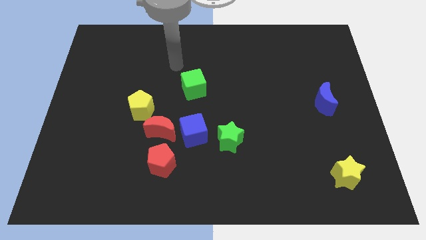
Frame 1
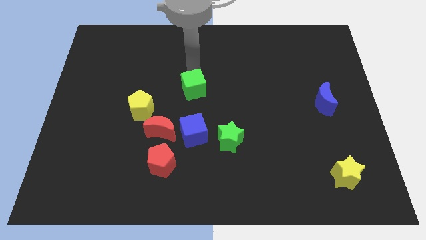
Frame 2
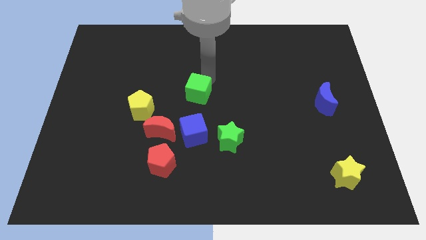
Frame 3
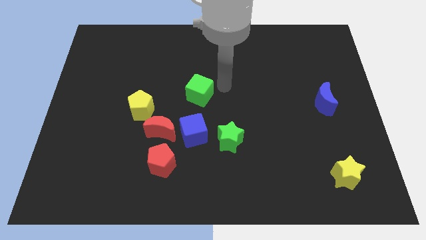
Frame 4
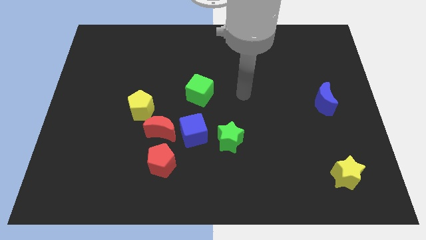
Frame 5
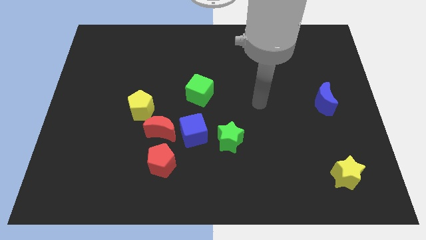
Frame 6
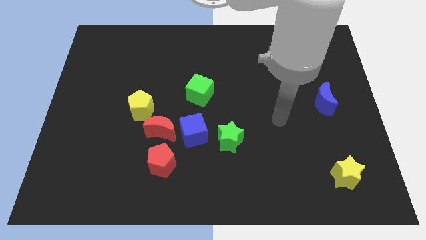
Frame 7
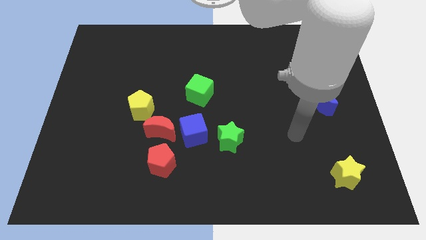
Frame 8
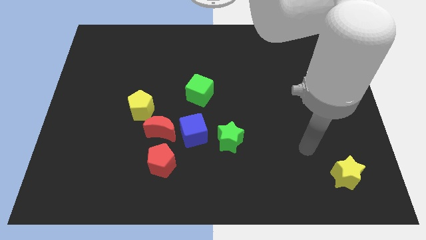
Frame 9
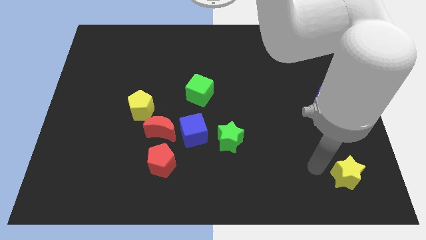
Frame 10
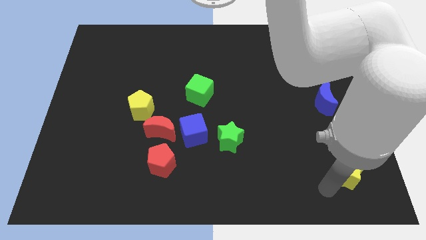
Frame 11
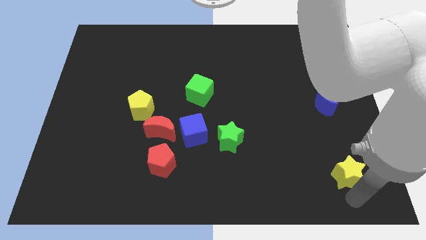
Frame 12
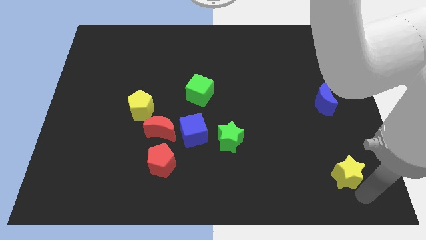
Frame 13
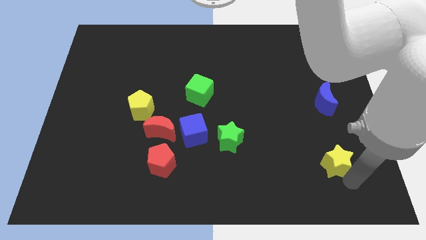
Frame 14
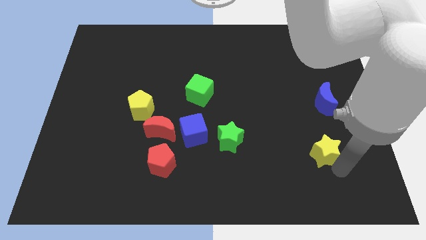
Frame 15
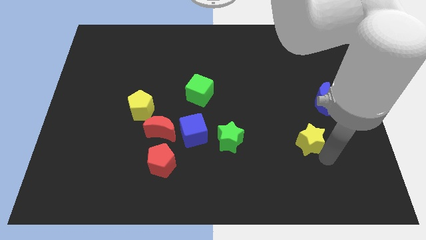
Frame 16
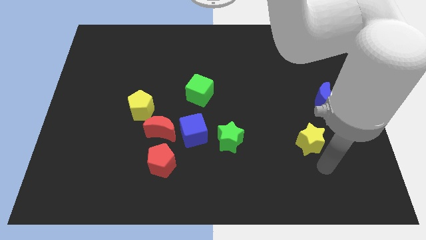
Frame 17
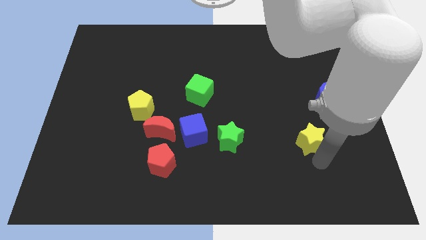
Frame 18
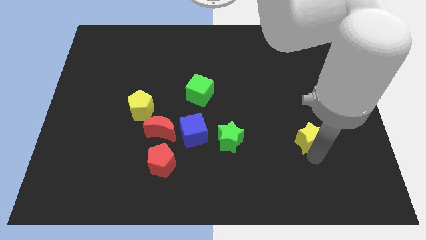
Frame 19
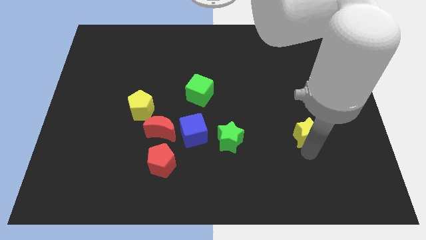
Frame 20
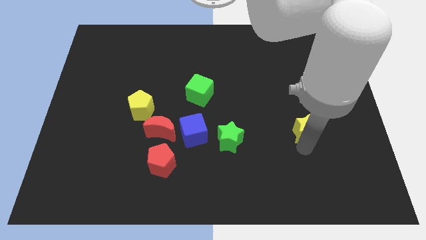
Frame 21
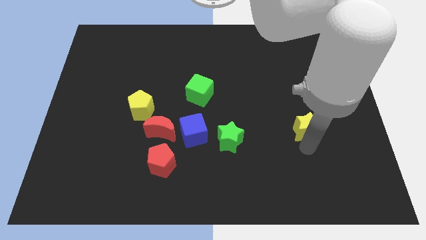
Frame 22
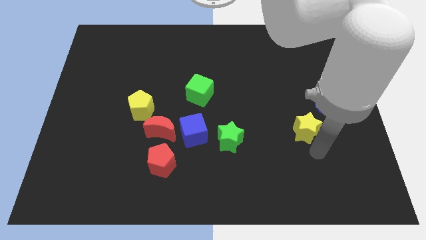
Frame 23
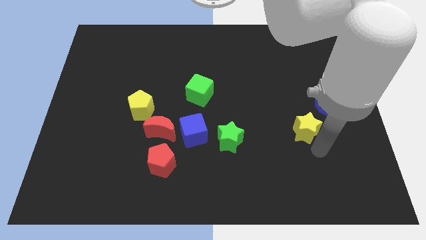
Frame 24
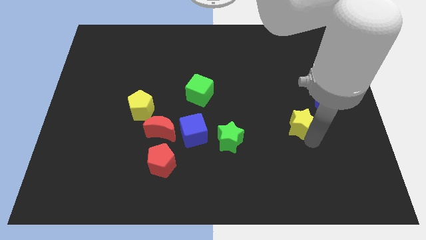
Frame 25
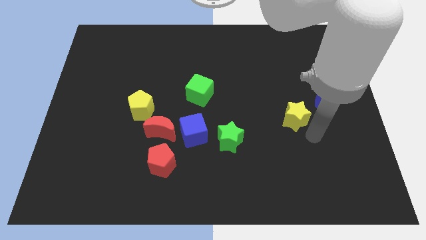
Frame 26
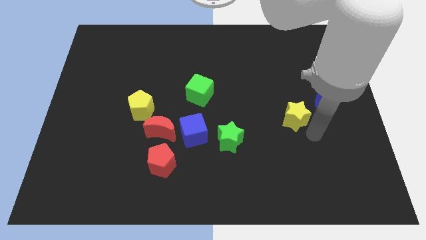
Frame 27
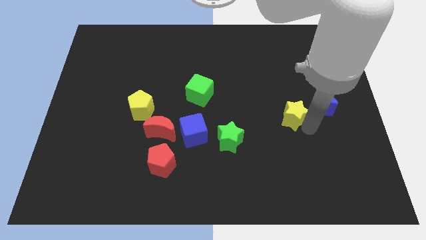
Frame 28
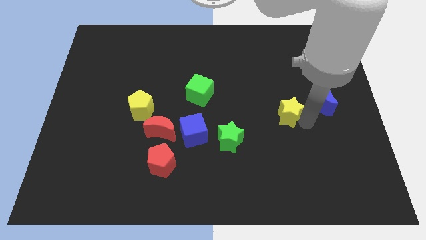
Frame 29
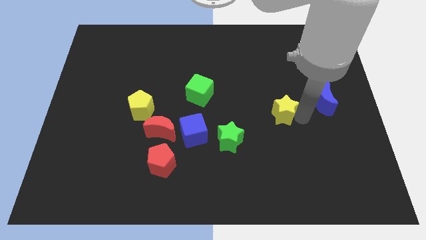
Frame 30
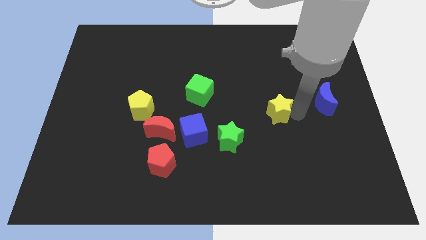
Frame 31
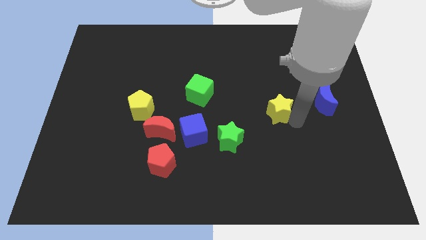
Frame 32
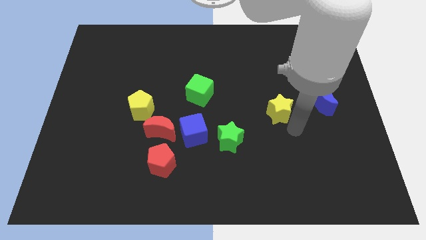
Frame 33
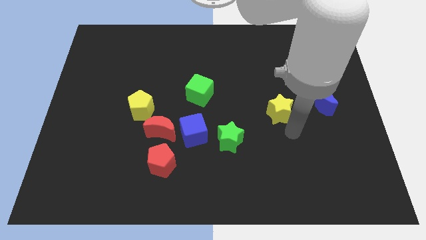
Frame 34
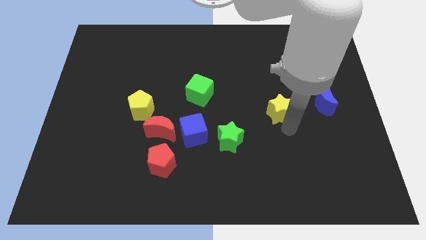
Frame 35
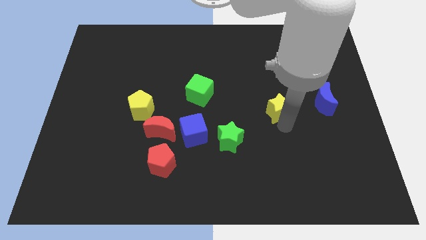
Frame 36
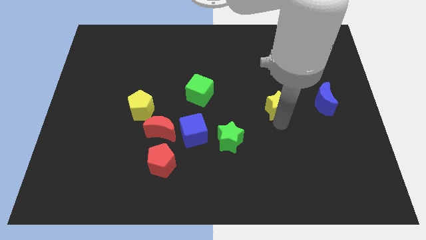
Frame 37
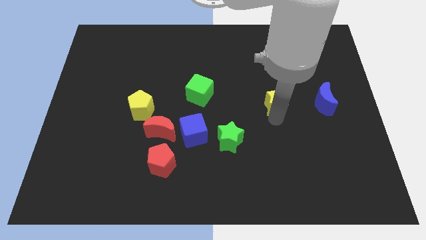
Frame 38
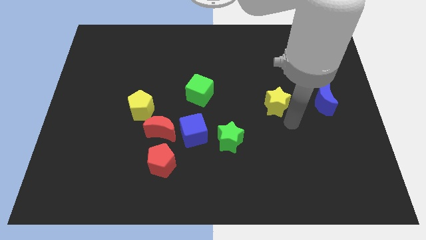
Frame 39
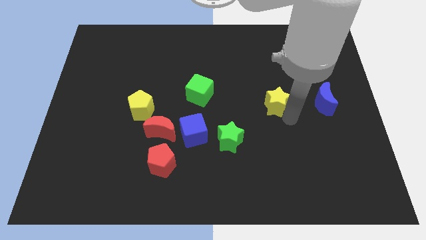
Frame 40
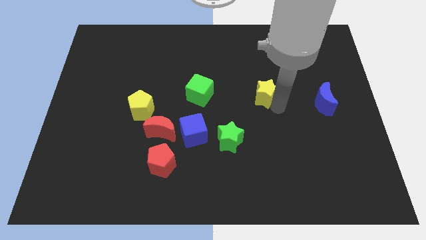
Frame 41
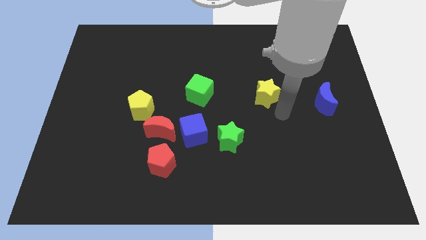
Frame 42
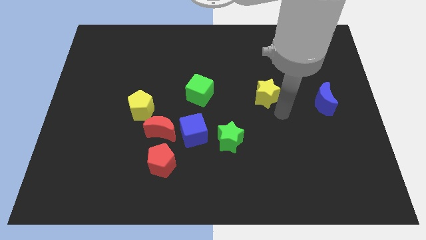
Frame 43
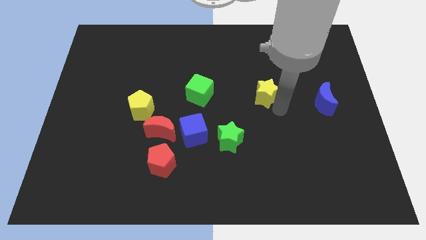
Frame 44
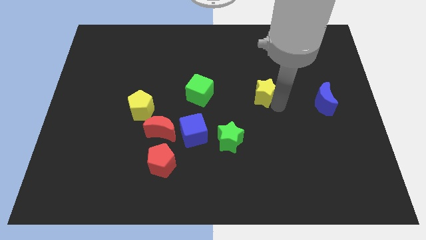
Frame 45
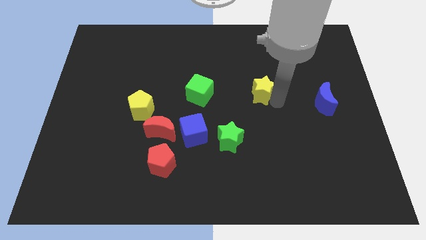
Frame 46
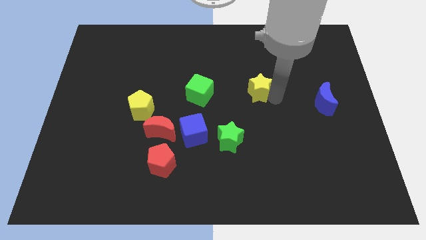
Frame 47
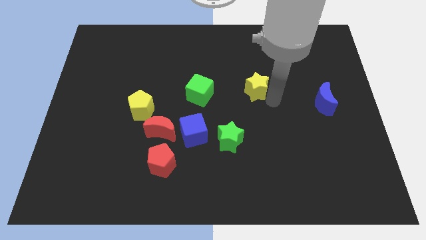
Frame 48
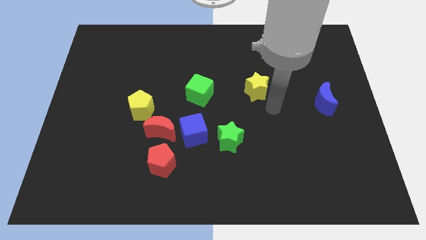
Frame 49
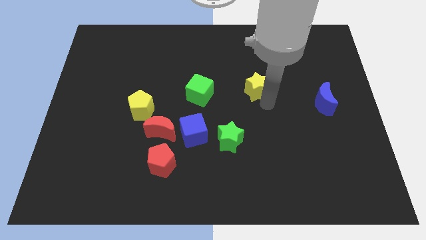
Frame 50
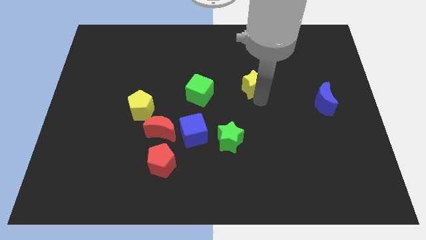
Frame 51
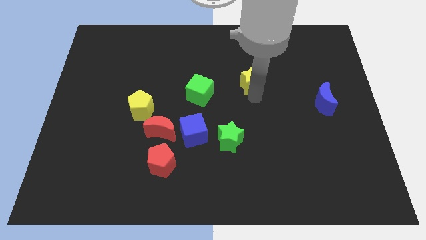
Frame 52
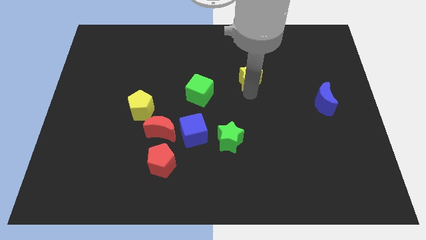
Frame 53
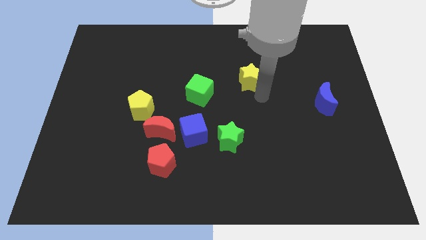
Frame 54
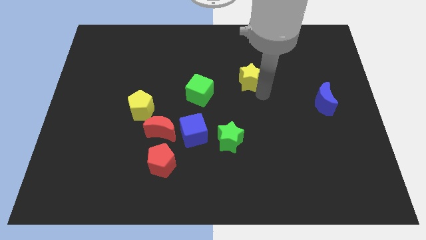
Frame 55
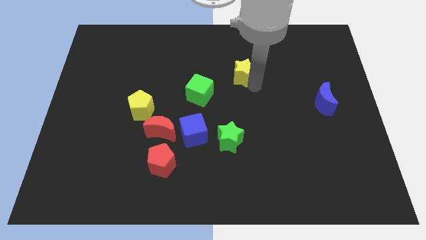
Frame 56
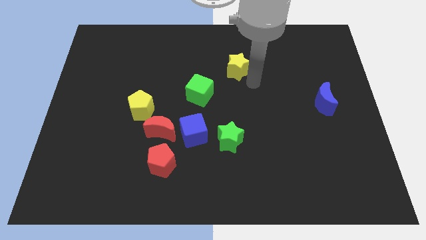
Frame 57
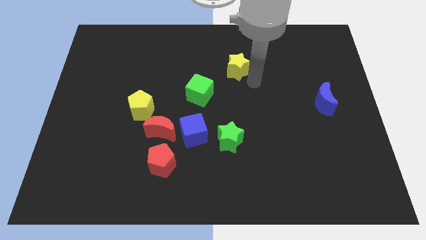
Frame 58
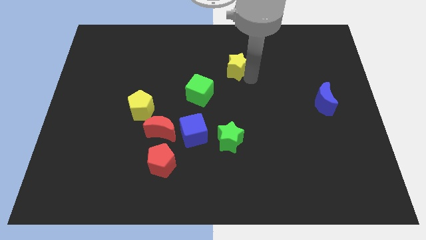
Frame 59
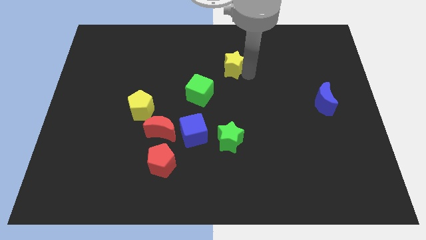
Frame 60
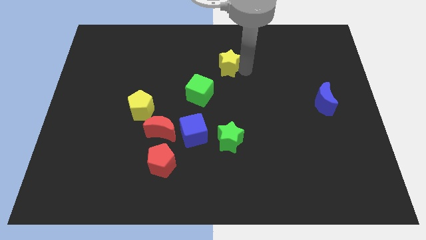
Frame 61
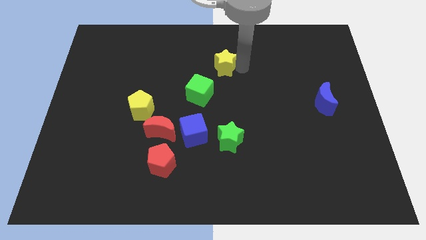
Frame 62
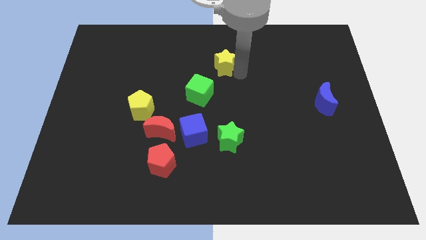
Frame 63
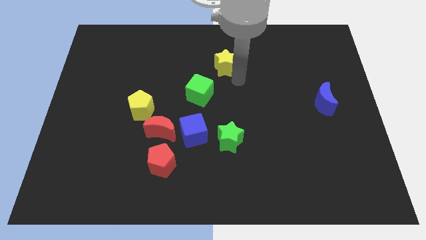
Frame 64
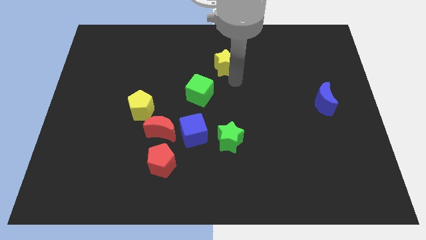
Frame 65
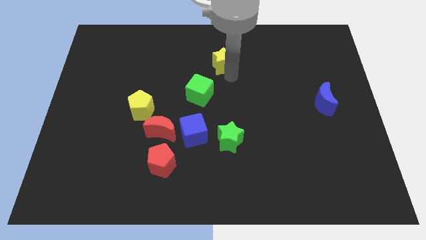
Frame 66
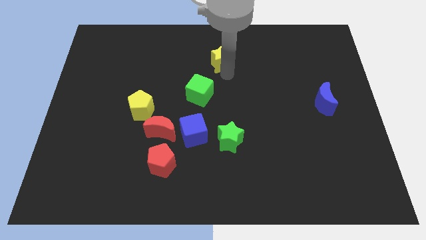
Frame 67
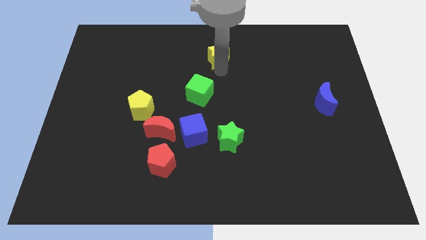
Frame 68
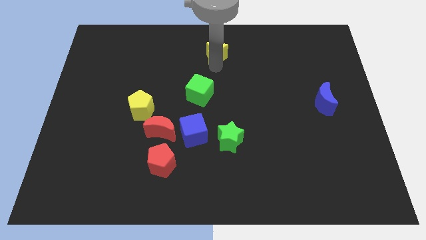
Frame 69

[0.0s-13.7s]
put the yellow star to the top side
